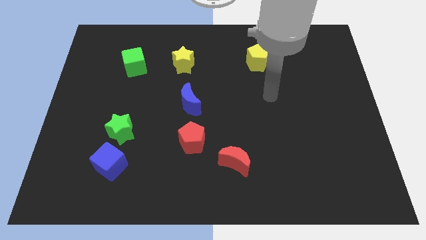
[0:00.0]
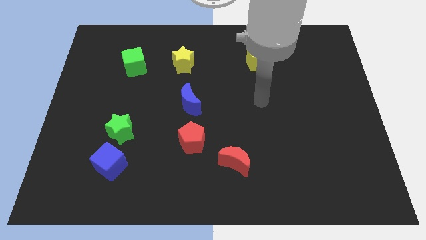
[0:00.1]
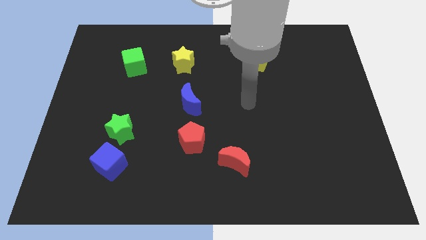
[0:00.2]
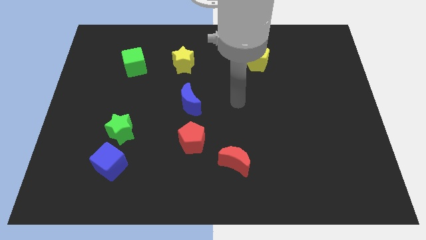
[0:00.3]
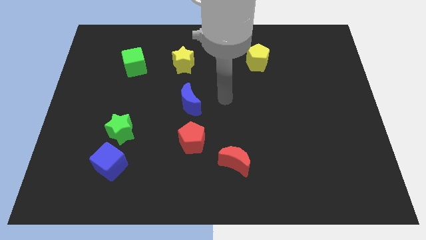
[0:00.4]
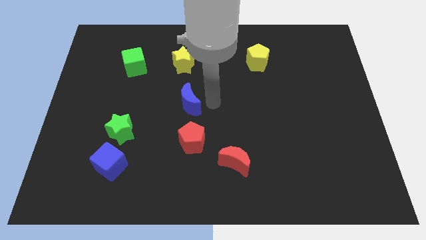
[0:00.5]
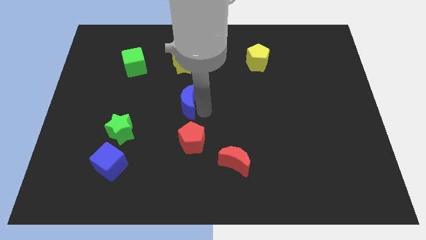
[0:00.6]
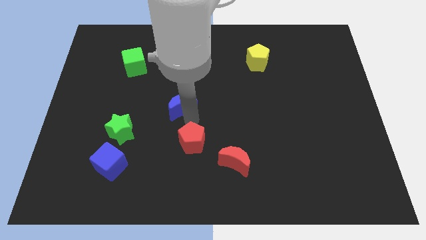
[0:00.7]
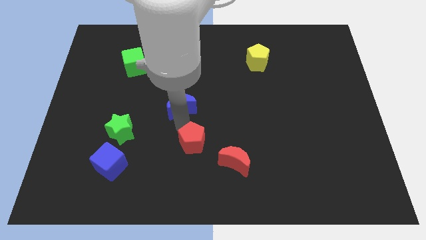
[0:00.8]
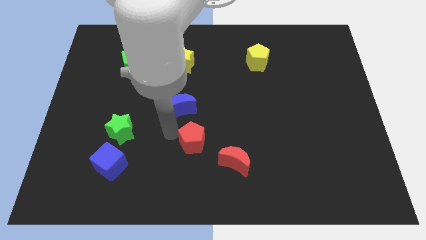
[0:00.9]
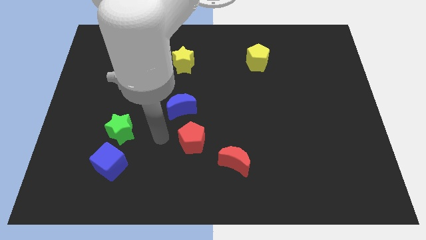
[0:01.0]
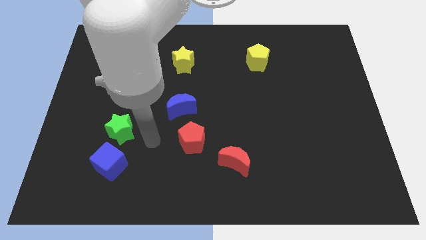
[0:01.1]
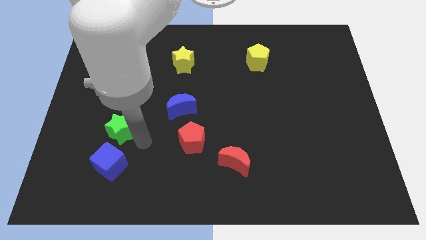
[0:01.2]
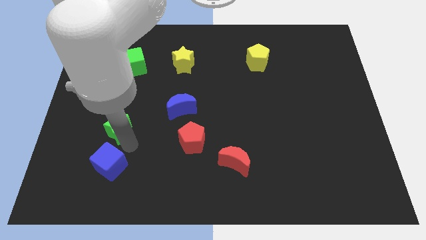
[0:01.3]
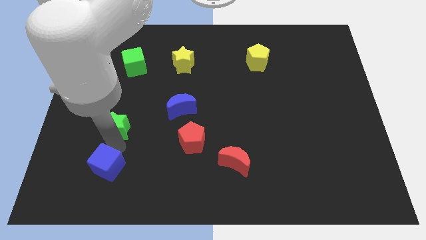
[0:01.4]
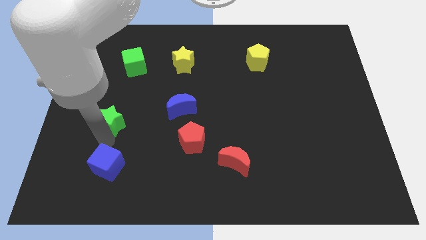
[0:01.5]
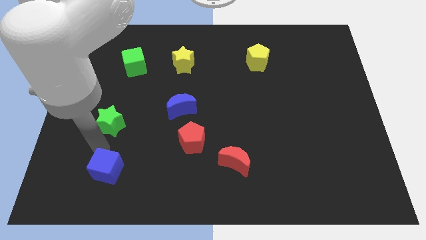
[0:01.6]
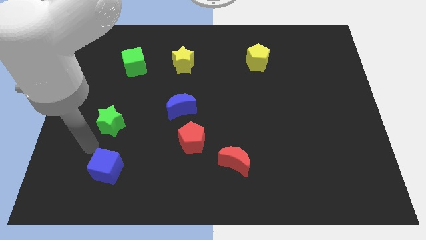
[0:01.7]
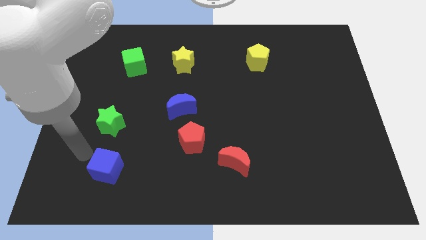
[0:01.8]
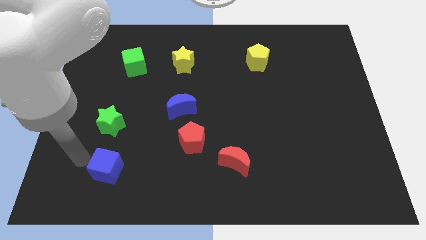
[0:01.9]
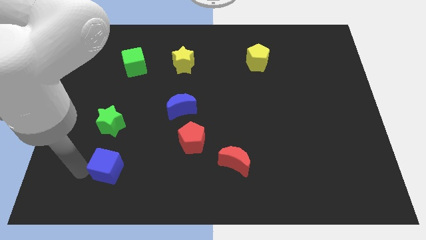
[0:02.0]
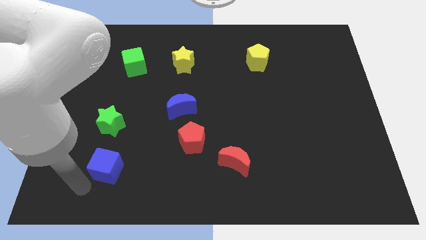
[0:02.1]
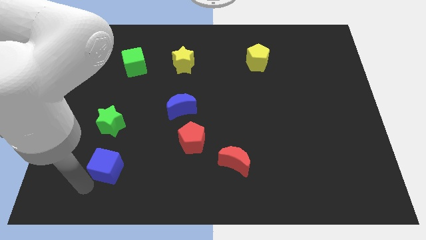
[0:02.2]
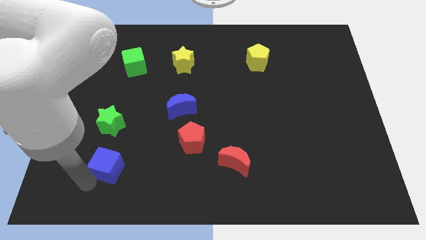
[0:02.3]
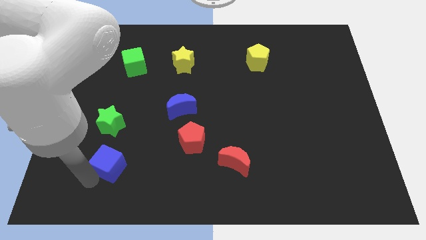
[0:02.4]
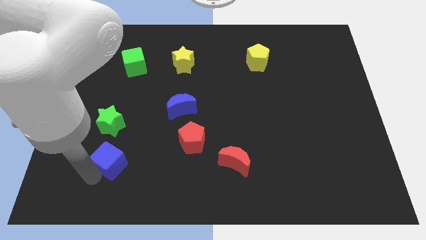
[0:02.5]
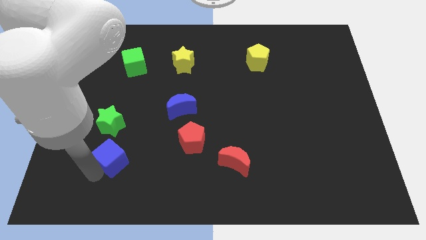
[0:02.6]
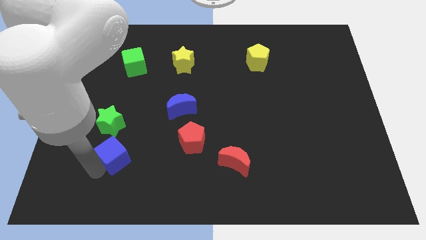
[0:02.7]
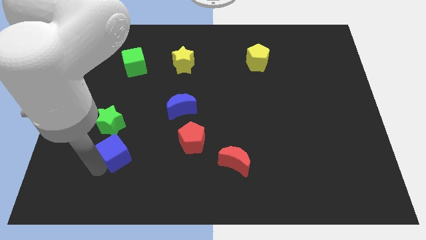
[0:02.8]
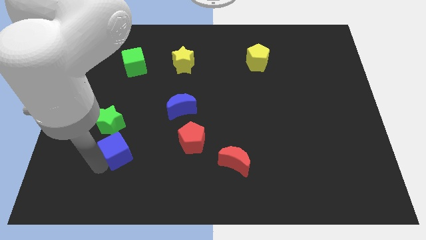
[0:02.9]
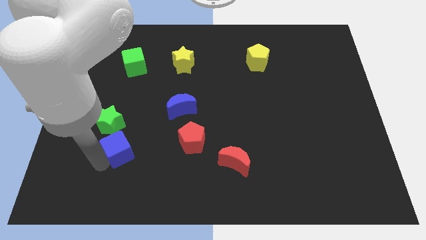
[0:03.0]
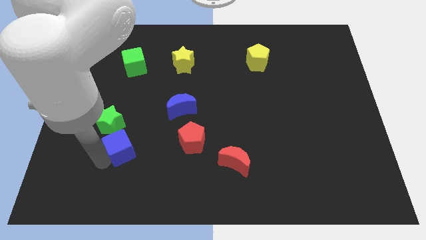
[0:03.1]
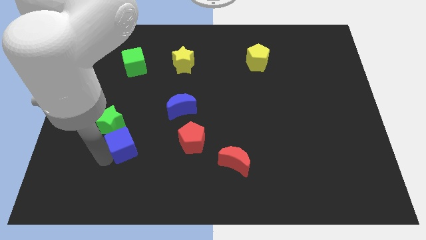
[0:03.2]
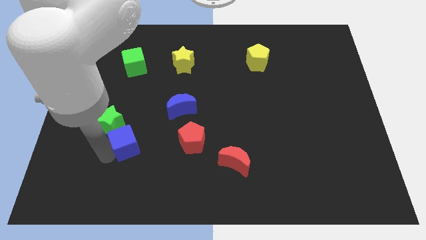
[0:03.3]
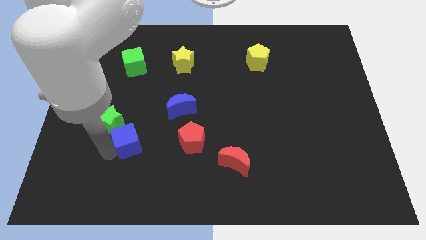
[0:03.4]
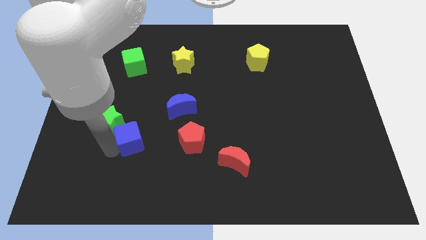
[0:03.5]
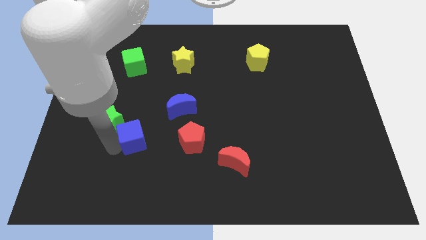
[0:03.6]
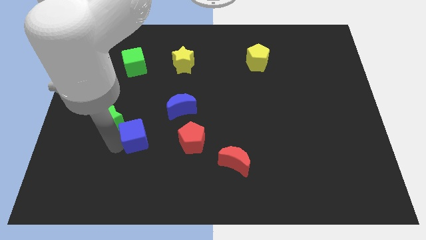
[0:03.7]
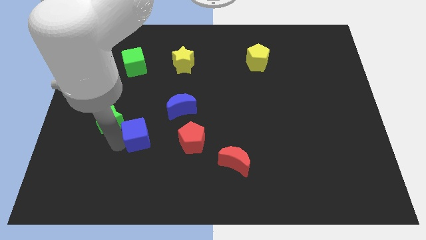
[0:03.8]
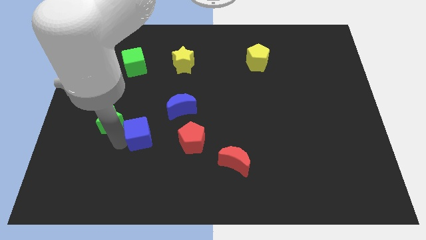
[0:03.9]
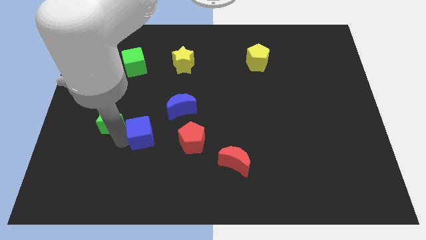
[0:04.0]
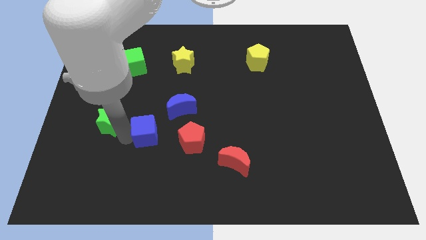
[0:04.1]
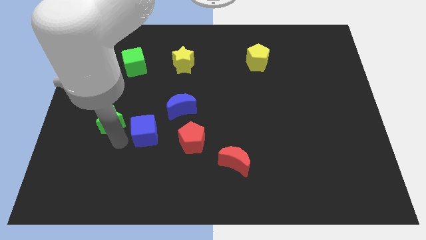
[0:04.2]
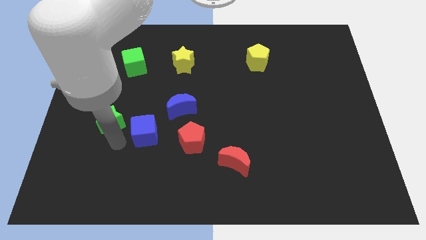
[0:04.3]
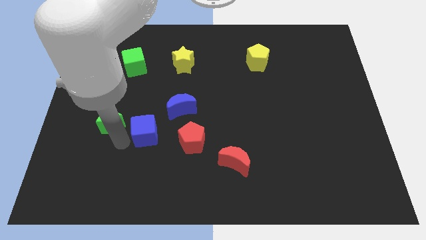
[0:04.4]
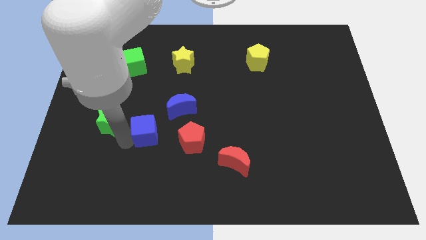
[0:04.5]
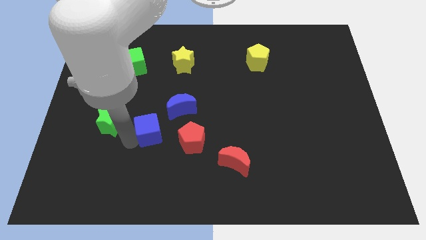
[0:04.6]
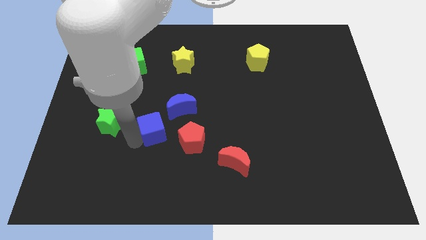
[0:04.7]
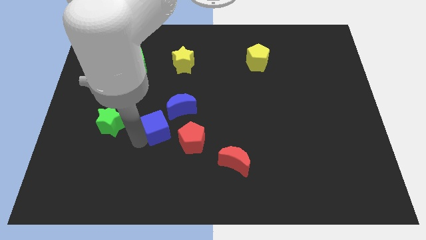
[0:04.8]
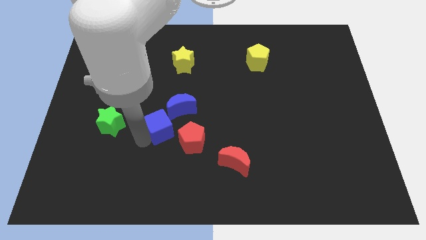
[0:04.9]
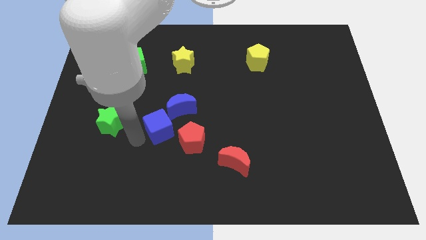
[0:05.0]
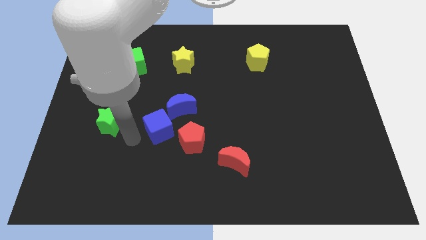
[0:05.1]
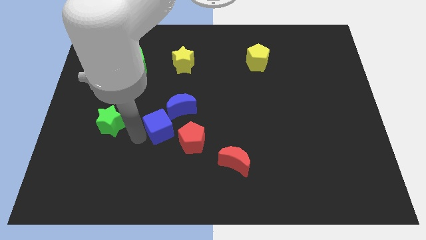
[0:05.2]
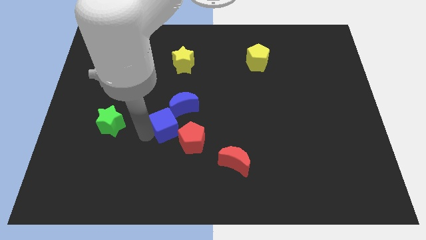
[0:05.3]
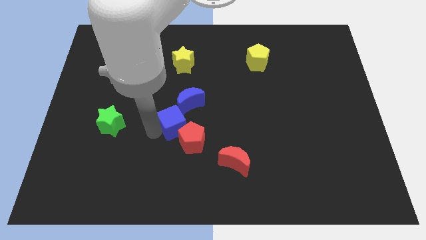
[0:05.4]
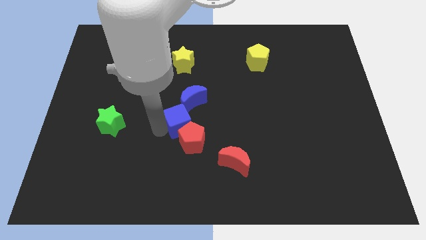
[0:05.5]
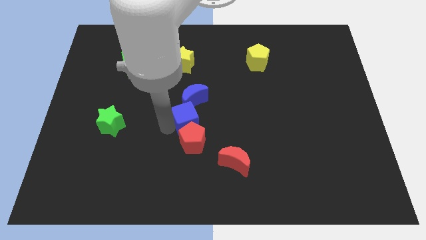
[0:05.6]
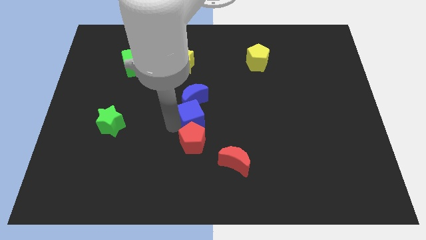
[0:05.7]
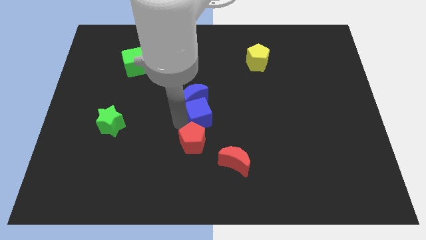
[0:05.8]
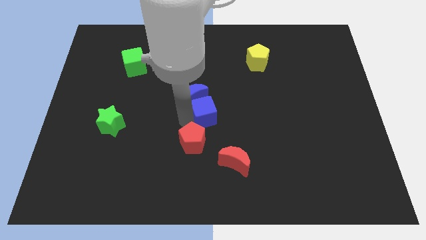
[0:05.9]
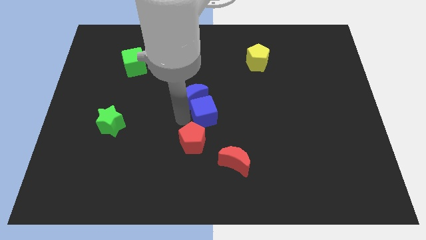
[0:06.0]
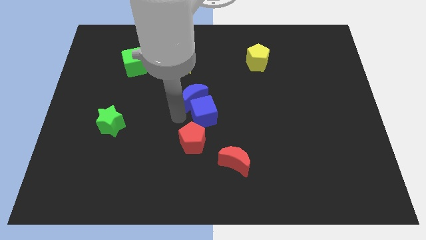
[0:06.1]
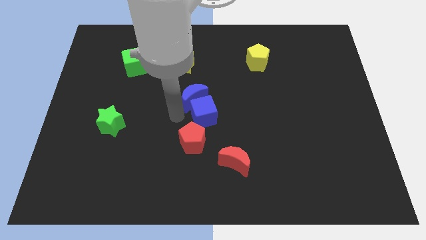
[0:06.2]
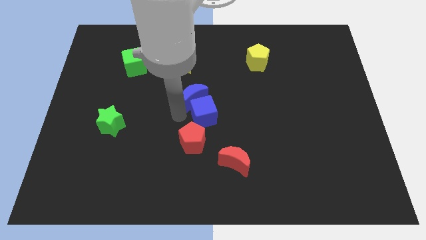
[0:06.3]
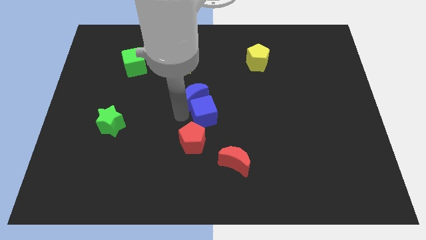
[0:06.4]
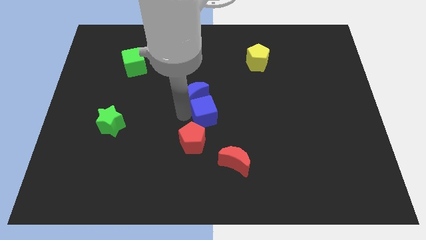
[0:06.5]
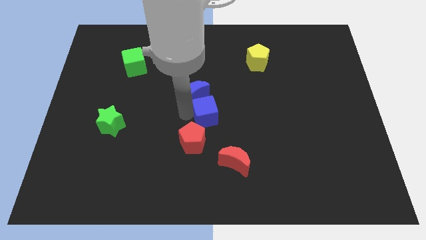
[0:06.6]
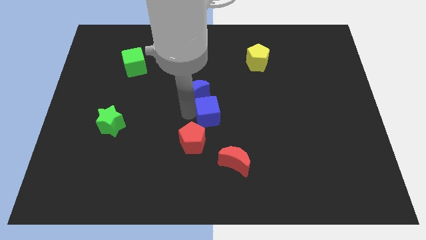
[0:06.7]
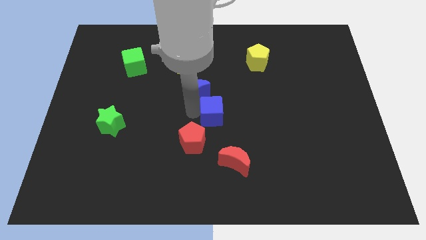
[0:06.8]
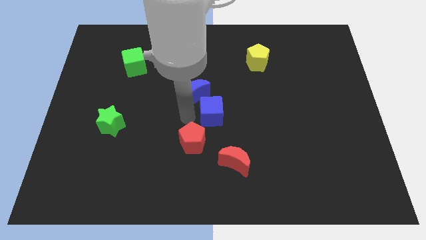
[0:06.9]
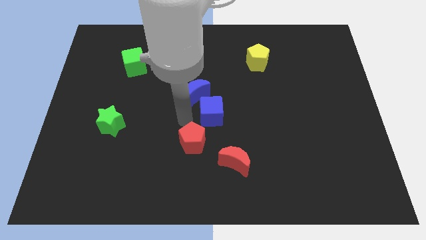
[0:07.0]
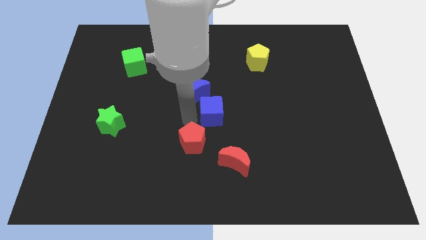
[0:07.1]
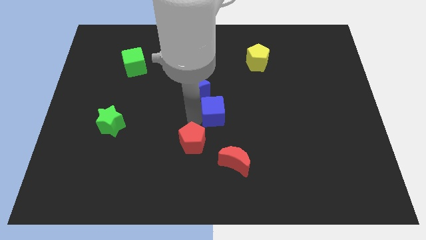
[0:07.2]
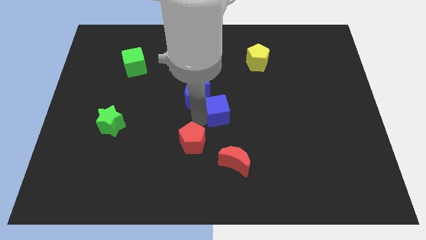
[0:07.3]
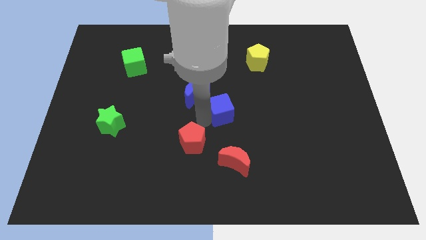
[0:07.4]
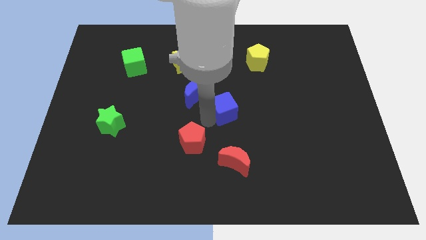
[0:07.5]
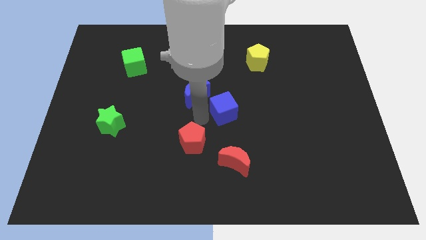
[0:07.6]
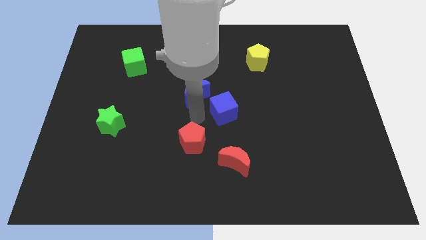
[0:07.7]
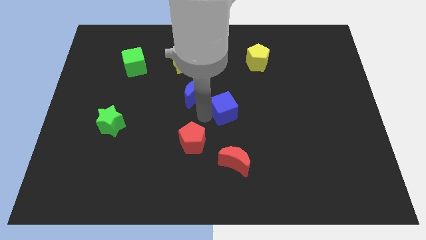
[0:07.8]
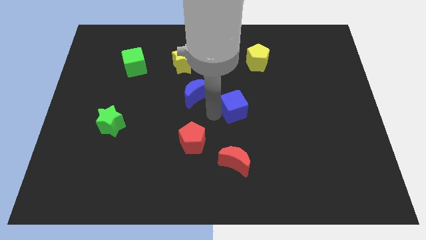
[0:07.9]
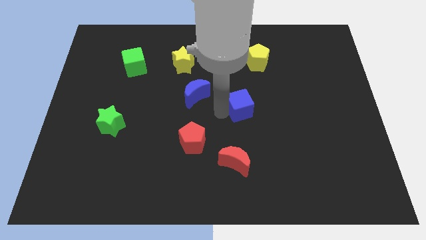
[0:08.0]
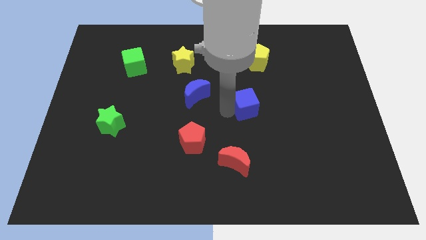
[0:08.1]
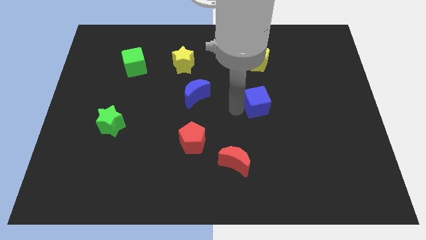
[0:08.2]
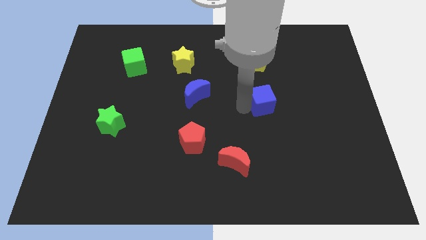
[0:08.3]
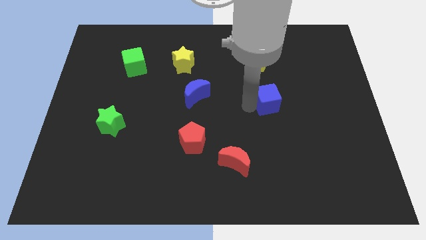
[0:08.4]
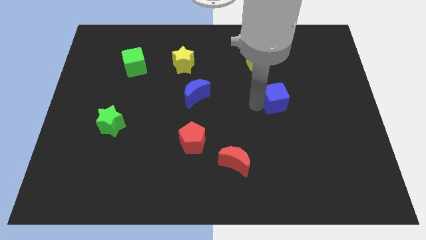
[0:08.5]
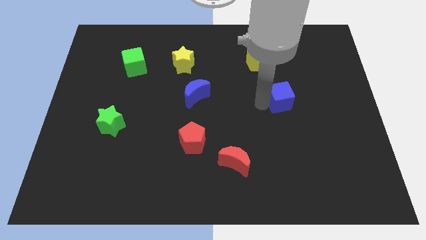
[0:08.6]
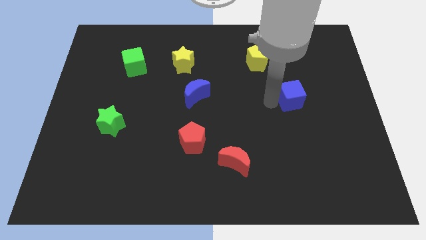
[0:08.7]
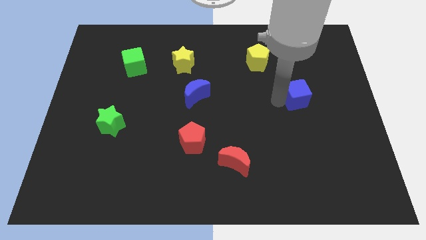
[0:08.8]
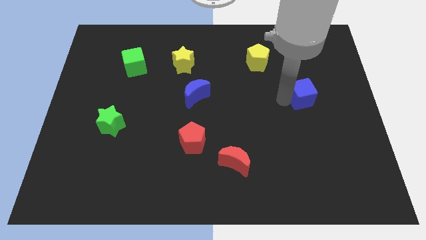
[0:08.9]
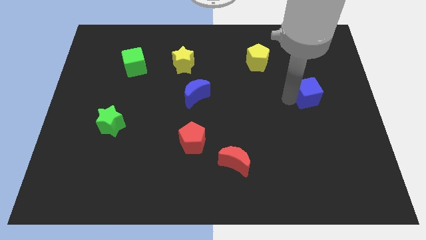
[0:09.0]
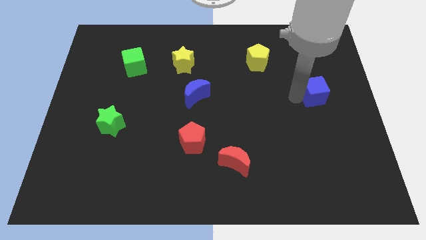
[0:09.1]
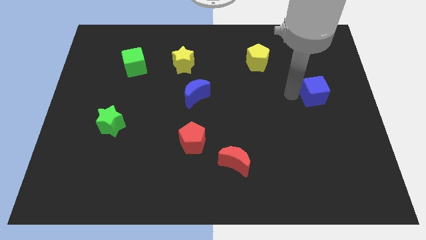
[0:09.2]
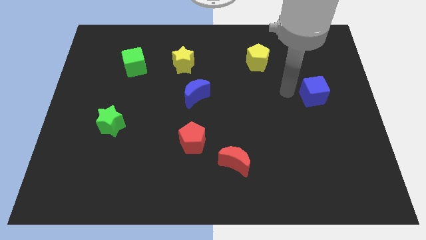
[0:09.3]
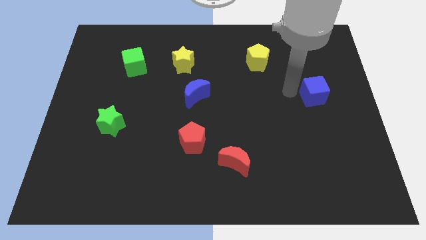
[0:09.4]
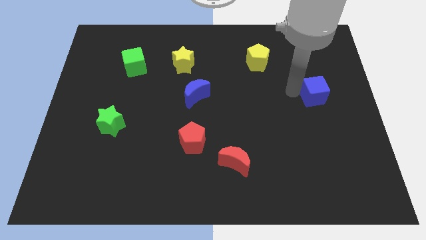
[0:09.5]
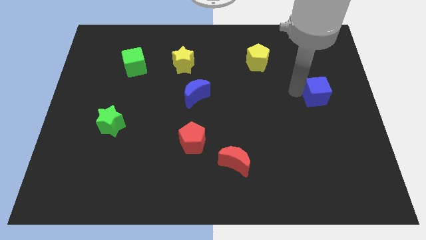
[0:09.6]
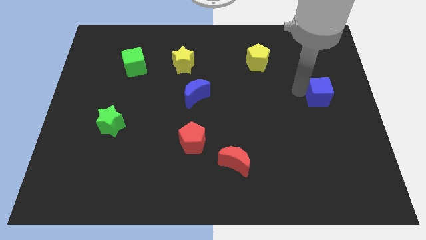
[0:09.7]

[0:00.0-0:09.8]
move the blue cube to the center right
